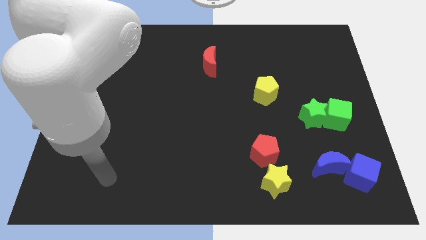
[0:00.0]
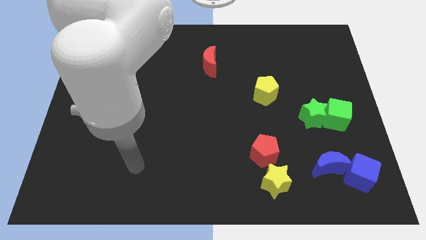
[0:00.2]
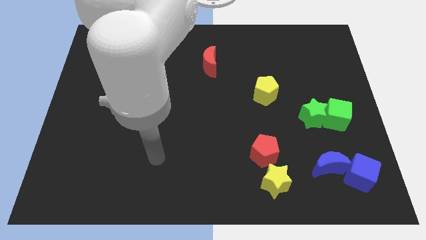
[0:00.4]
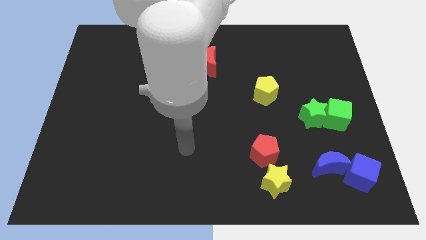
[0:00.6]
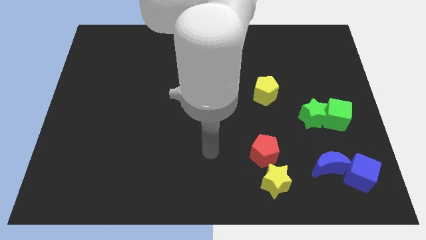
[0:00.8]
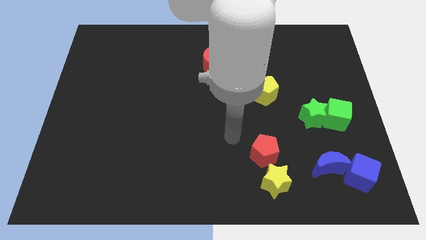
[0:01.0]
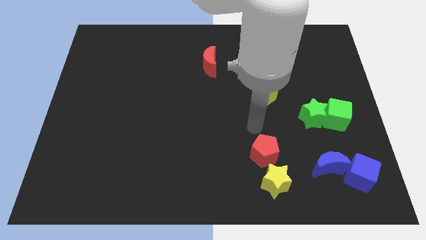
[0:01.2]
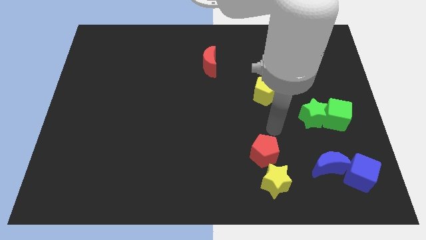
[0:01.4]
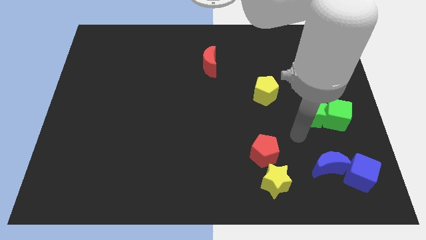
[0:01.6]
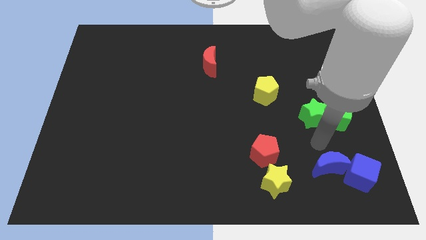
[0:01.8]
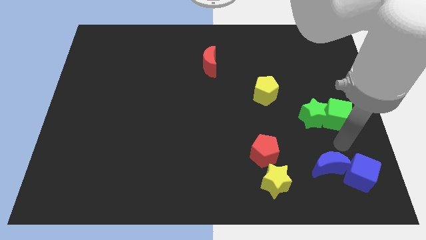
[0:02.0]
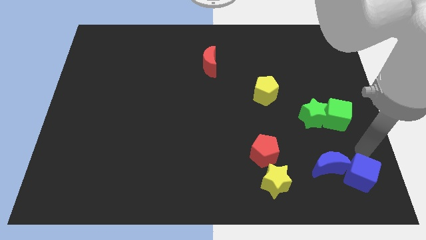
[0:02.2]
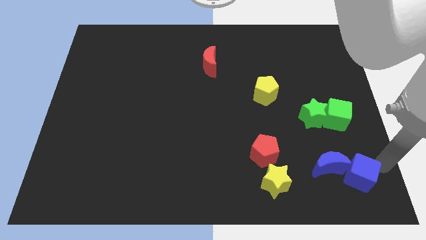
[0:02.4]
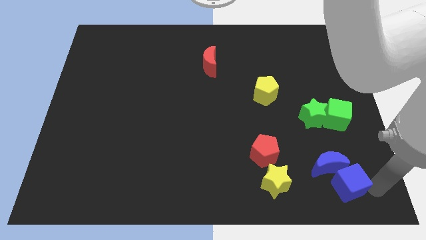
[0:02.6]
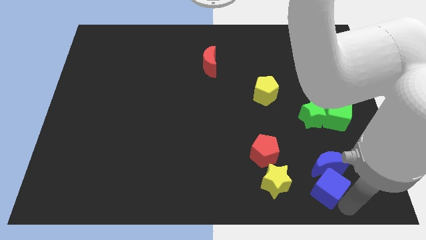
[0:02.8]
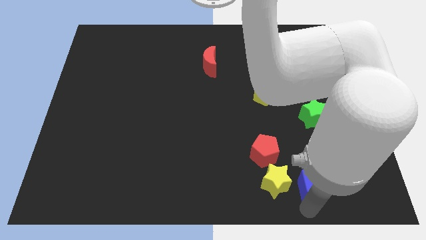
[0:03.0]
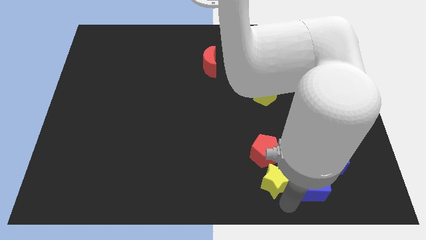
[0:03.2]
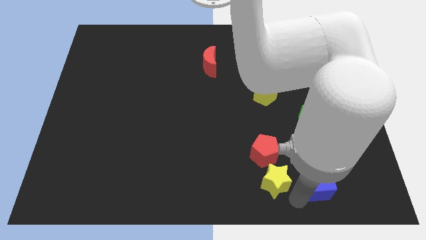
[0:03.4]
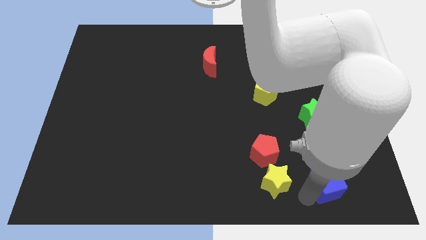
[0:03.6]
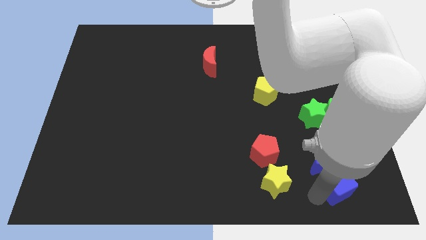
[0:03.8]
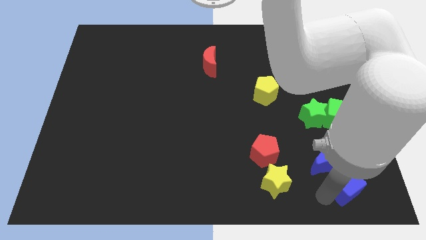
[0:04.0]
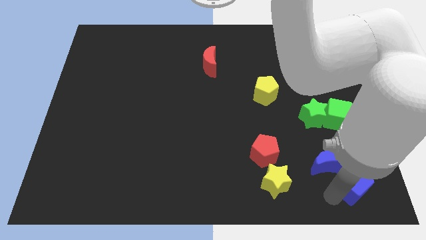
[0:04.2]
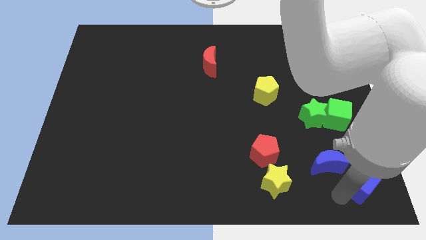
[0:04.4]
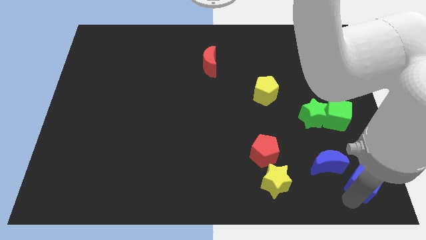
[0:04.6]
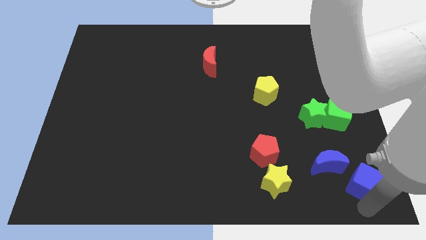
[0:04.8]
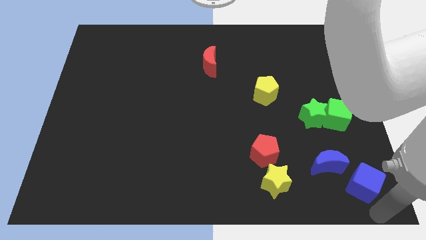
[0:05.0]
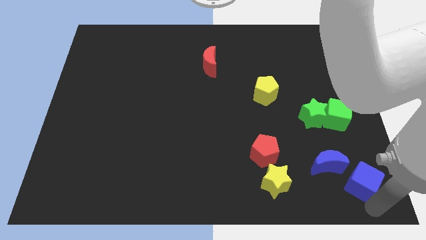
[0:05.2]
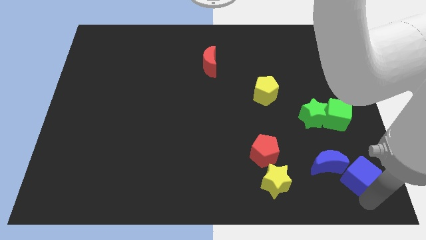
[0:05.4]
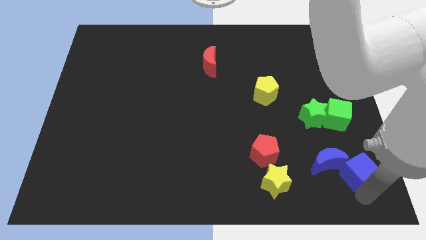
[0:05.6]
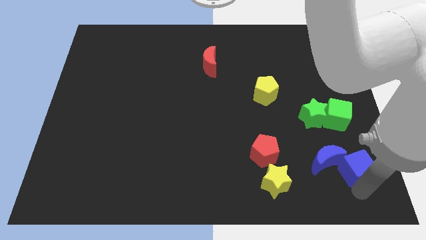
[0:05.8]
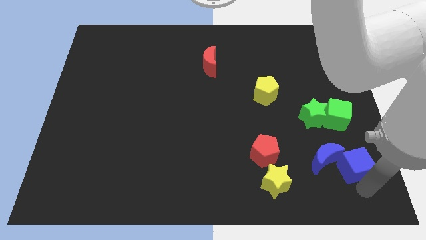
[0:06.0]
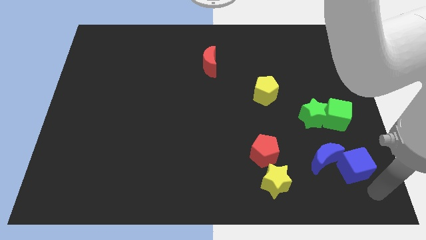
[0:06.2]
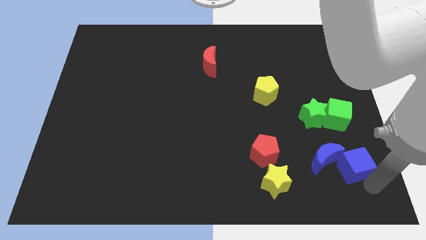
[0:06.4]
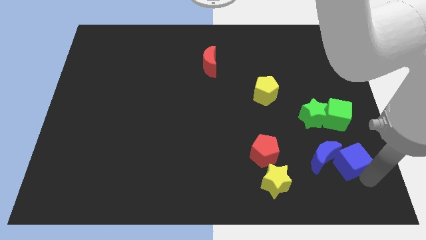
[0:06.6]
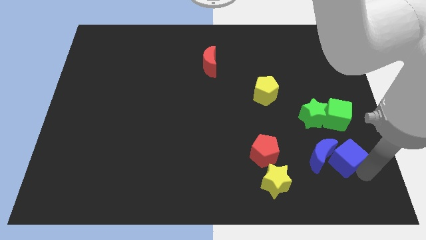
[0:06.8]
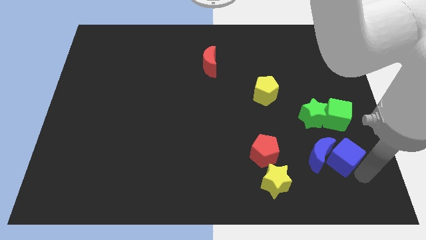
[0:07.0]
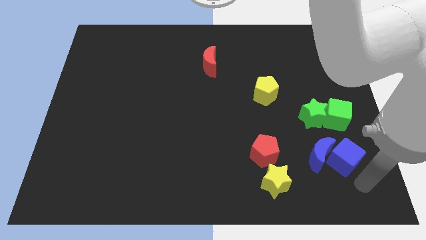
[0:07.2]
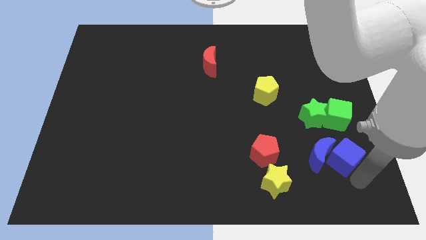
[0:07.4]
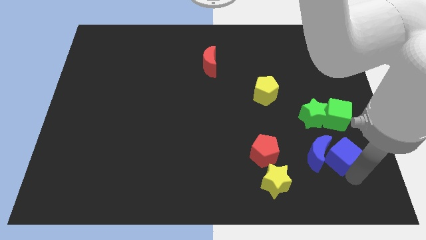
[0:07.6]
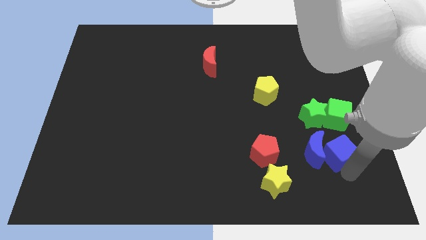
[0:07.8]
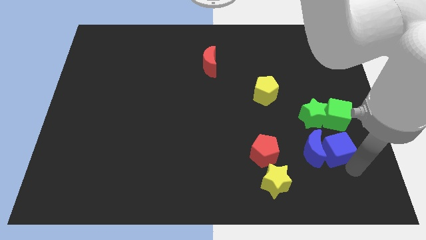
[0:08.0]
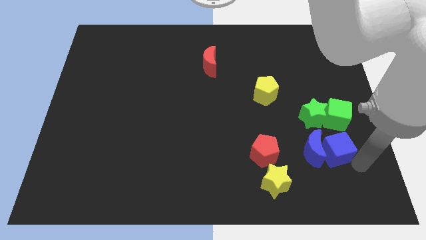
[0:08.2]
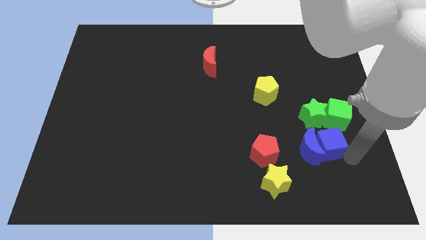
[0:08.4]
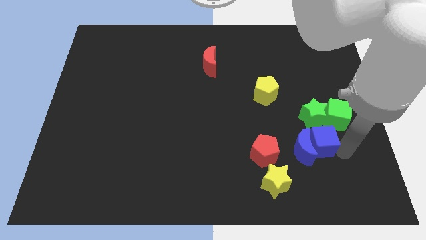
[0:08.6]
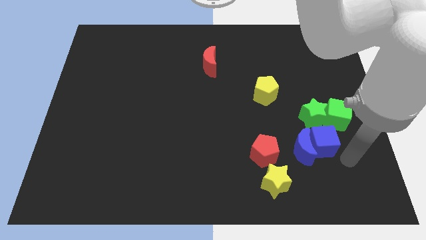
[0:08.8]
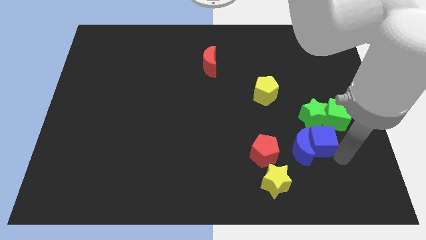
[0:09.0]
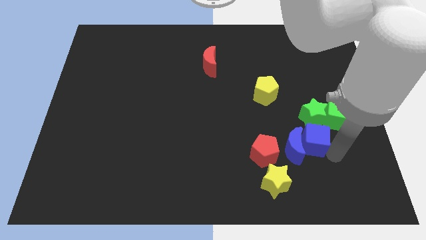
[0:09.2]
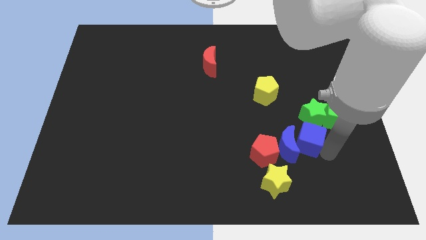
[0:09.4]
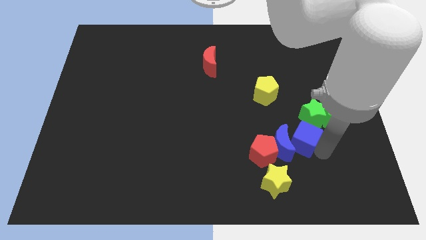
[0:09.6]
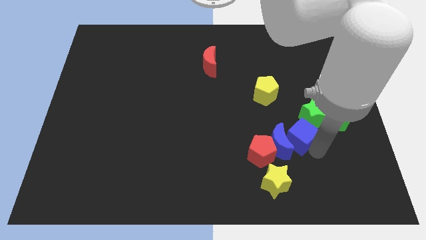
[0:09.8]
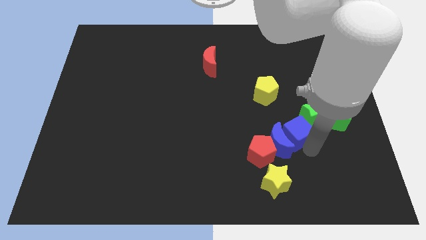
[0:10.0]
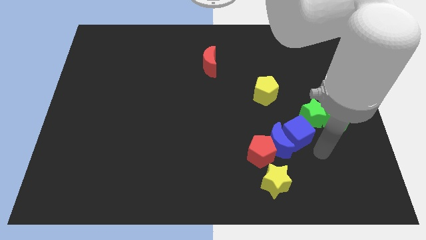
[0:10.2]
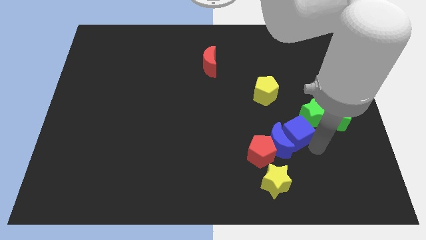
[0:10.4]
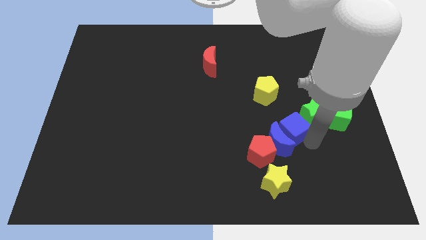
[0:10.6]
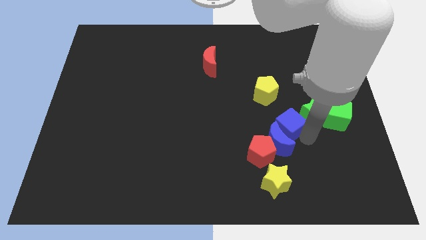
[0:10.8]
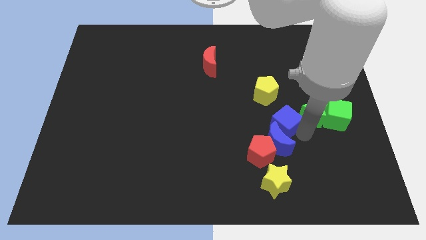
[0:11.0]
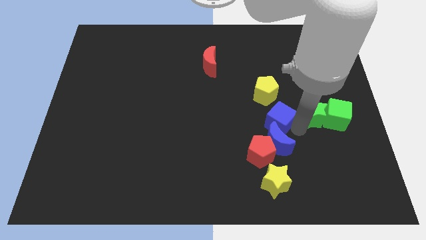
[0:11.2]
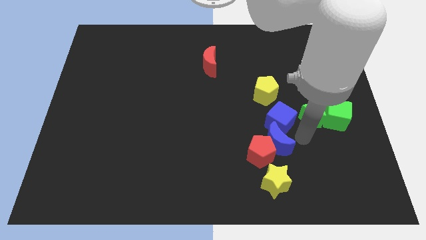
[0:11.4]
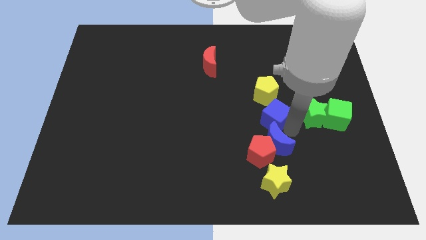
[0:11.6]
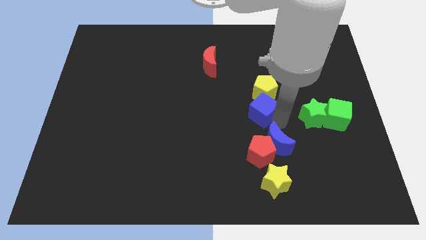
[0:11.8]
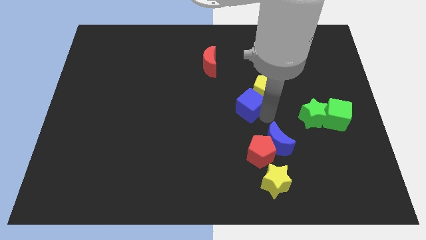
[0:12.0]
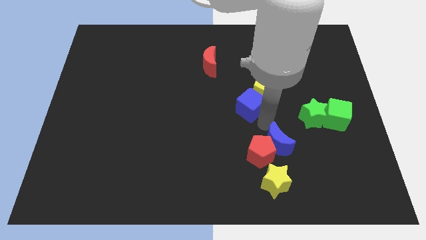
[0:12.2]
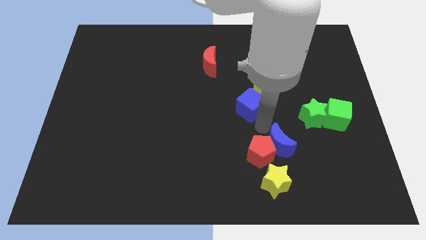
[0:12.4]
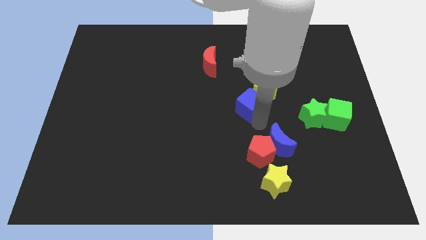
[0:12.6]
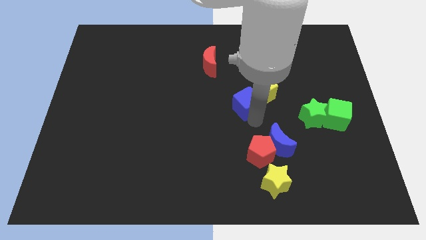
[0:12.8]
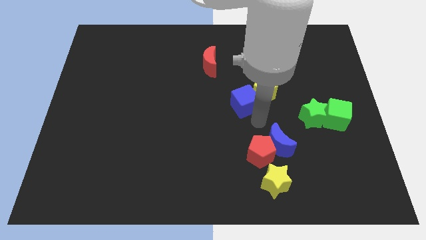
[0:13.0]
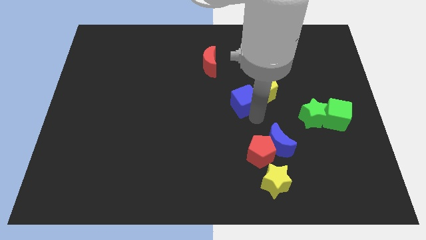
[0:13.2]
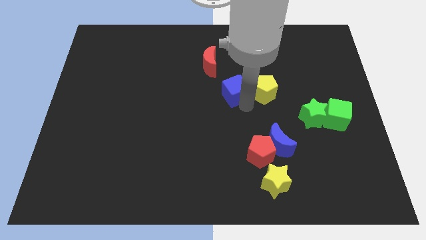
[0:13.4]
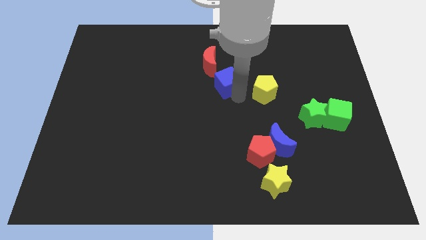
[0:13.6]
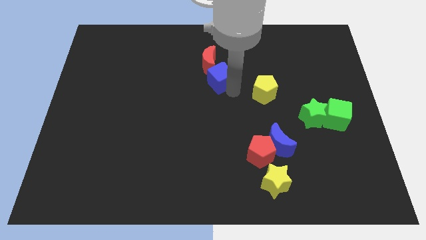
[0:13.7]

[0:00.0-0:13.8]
slide the blue cube towards the red moon
